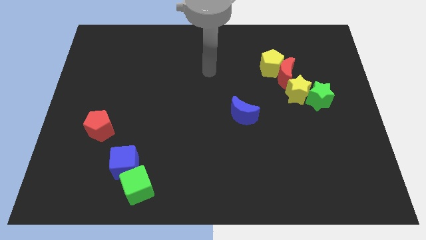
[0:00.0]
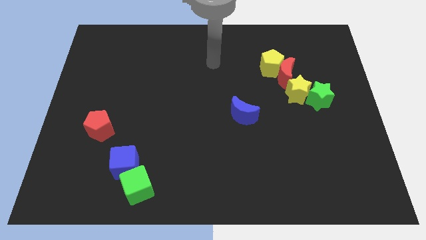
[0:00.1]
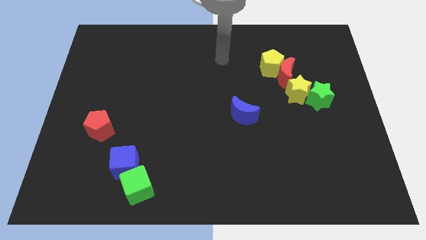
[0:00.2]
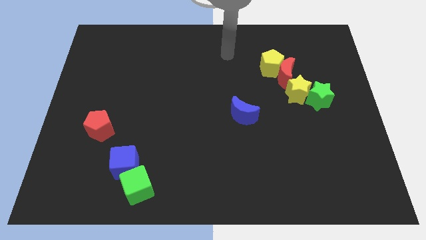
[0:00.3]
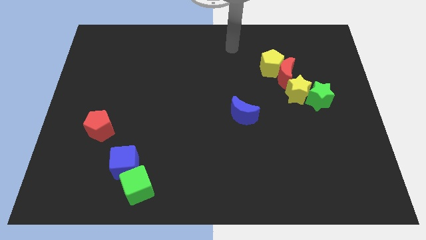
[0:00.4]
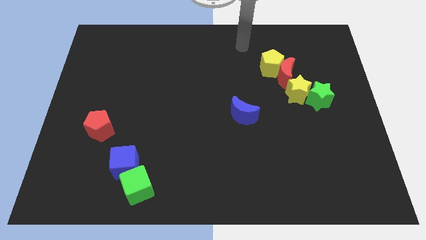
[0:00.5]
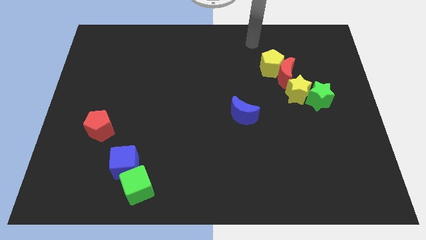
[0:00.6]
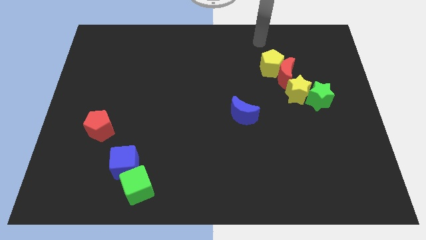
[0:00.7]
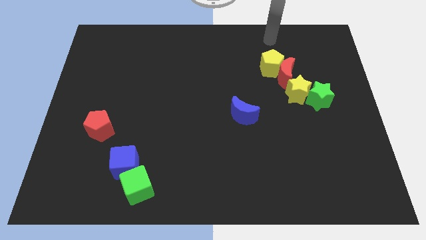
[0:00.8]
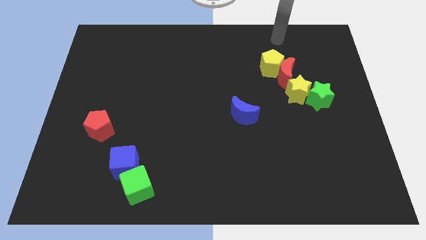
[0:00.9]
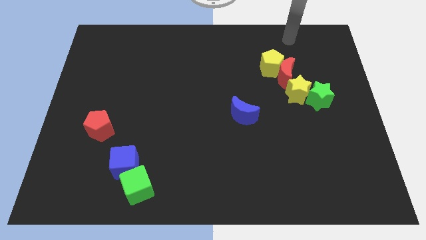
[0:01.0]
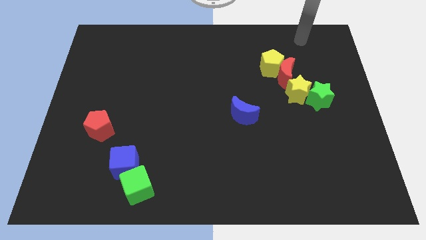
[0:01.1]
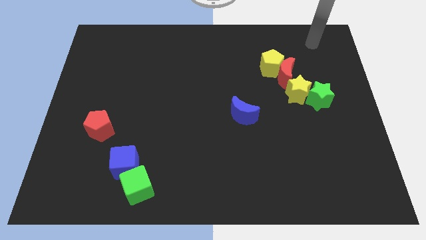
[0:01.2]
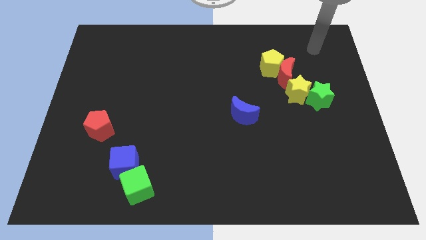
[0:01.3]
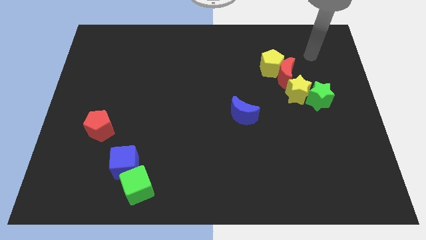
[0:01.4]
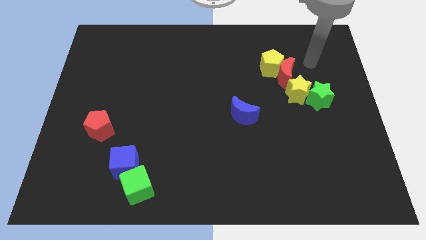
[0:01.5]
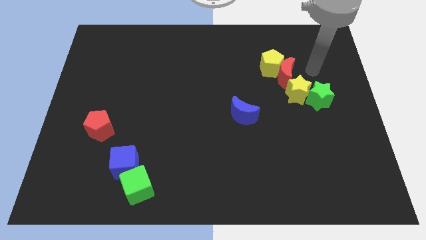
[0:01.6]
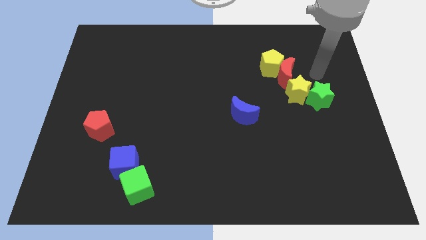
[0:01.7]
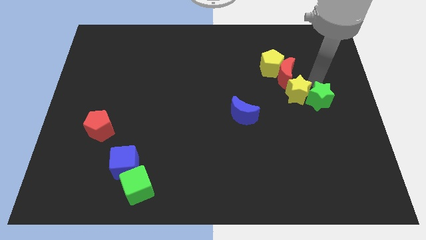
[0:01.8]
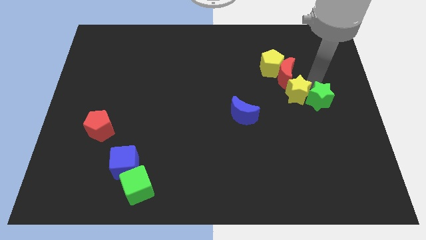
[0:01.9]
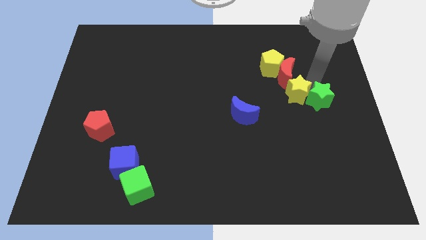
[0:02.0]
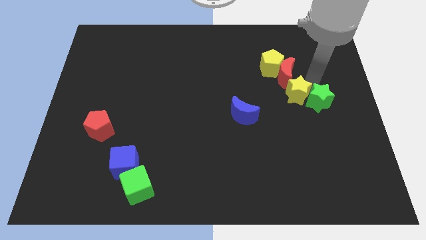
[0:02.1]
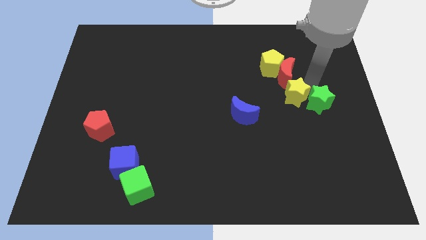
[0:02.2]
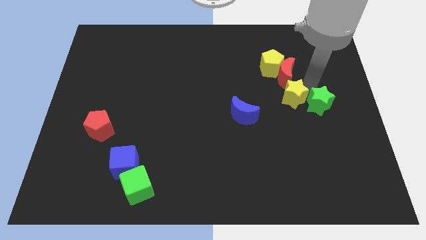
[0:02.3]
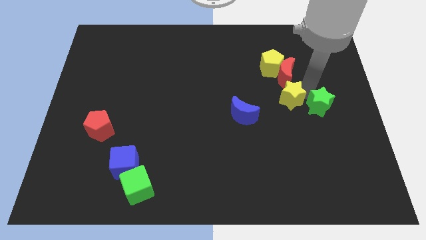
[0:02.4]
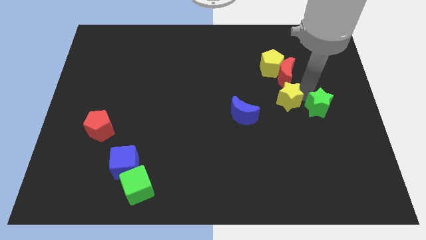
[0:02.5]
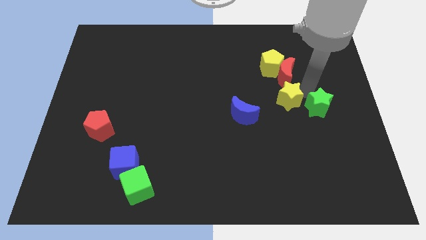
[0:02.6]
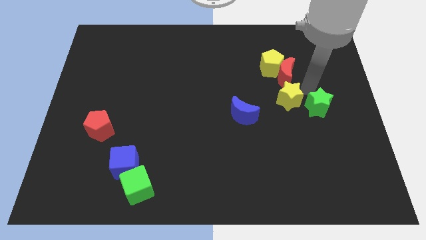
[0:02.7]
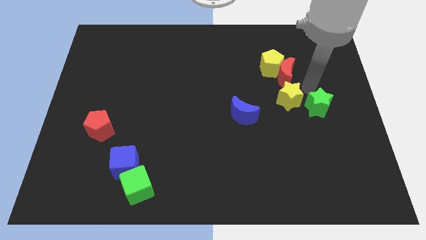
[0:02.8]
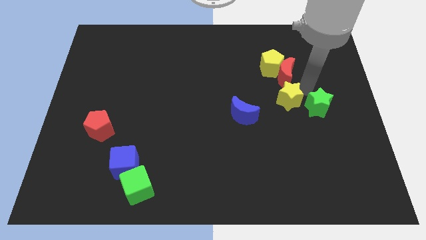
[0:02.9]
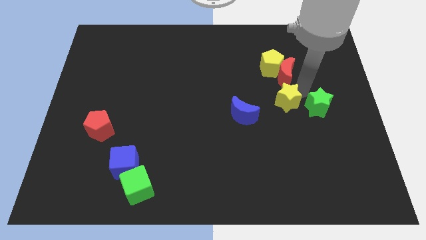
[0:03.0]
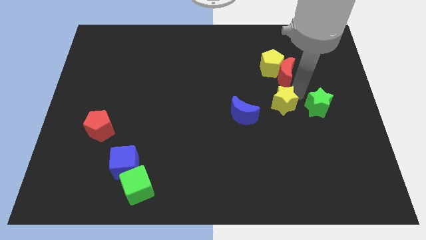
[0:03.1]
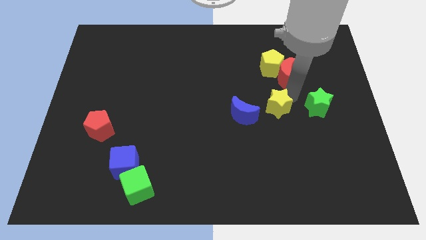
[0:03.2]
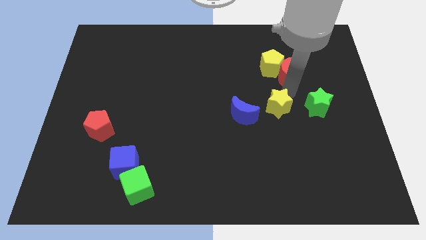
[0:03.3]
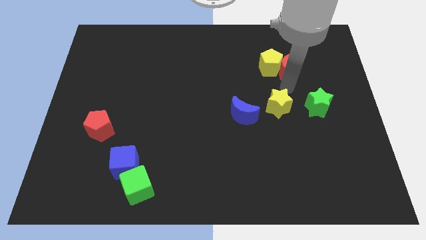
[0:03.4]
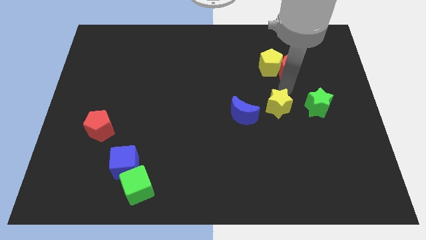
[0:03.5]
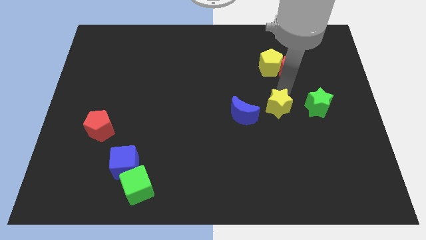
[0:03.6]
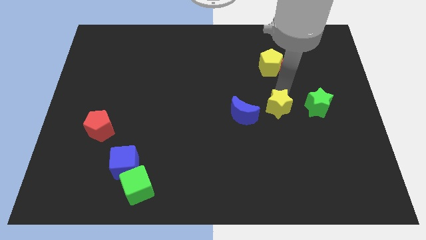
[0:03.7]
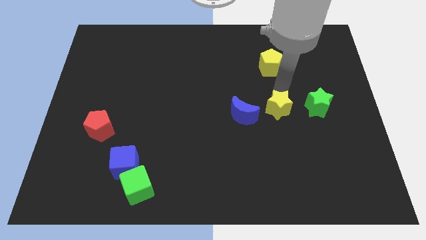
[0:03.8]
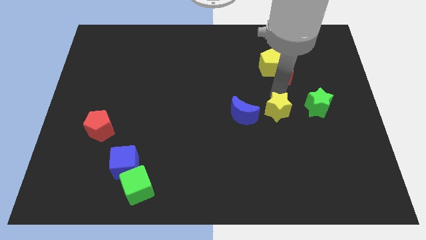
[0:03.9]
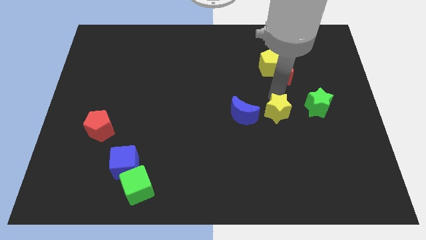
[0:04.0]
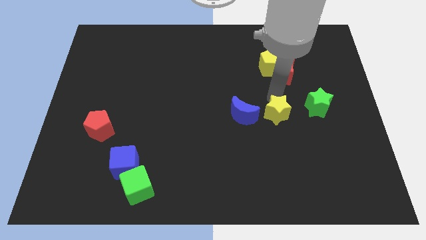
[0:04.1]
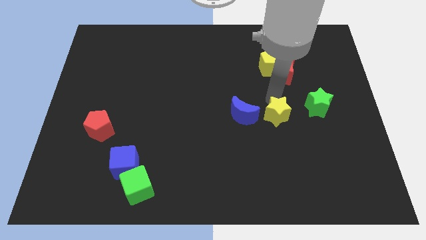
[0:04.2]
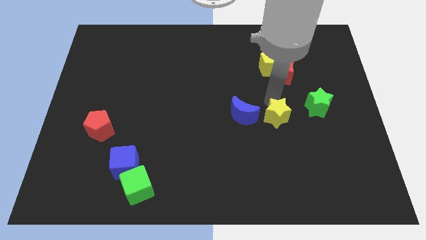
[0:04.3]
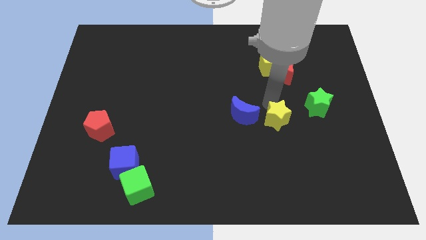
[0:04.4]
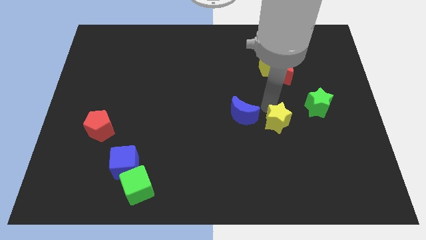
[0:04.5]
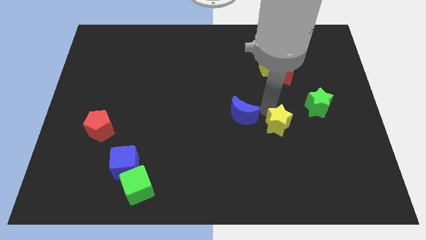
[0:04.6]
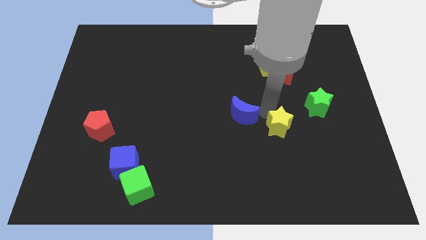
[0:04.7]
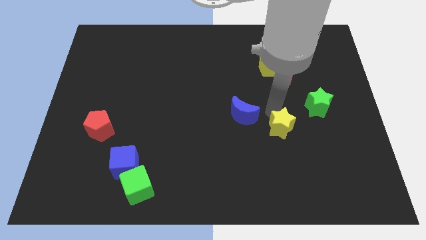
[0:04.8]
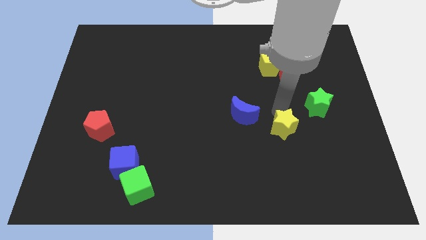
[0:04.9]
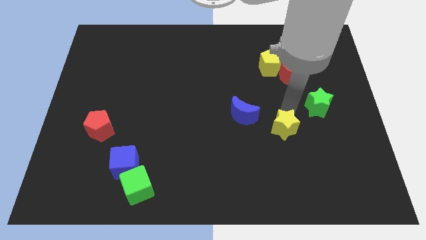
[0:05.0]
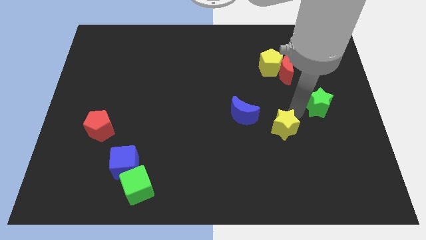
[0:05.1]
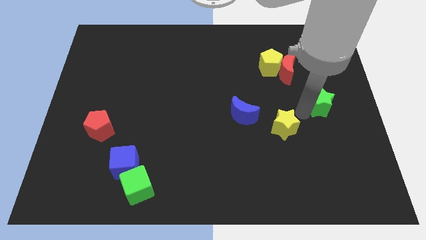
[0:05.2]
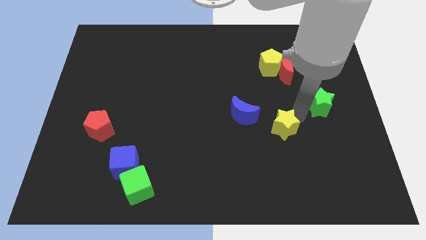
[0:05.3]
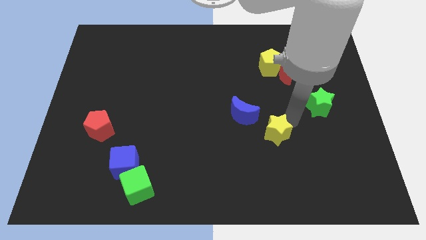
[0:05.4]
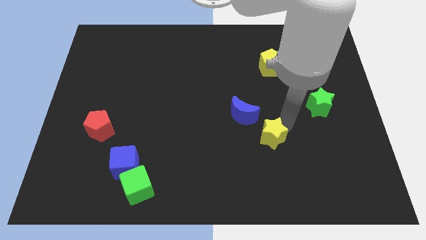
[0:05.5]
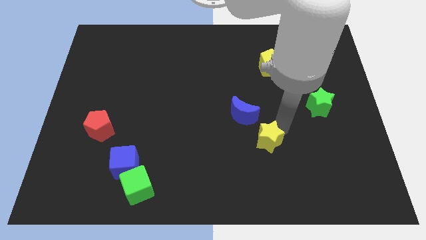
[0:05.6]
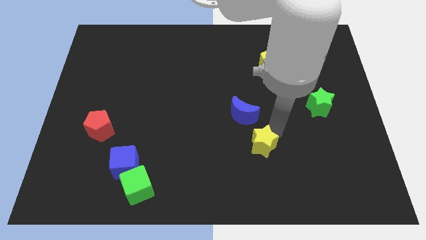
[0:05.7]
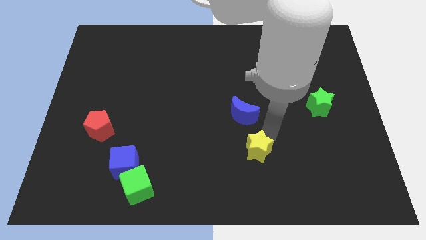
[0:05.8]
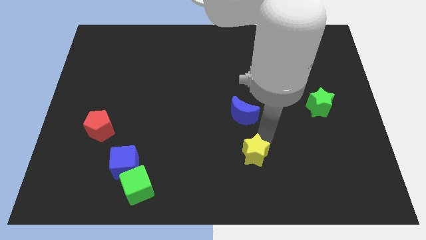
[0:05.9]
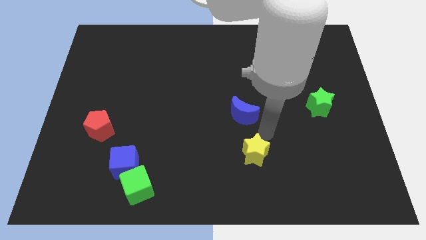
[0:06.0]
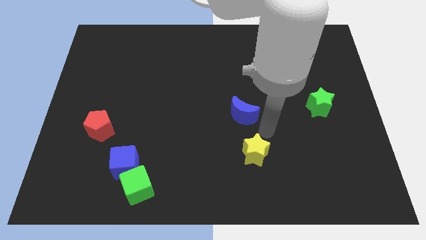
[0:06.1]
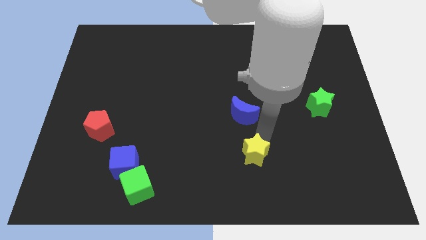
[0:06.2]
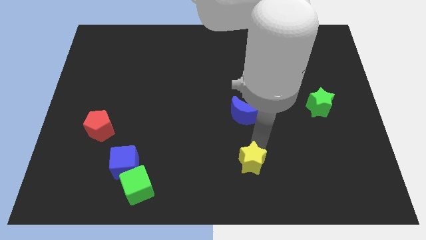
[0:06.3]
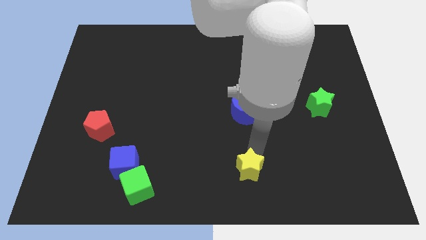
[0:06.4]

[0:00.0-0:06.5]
move the yellow star to the bottom

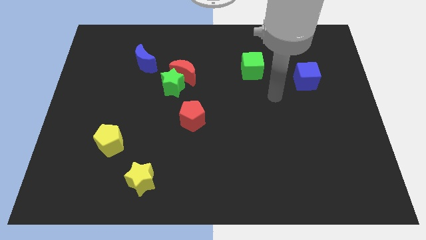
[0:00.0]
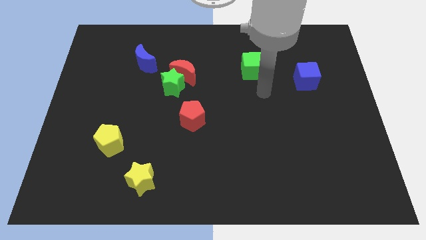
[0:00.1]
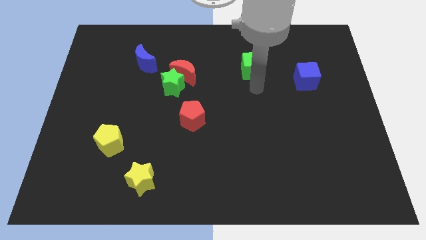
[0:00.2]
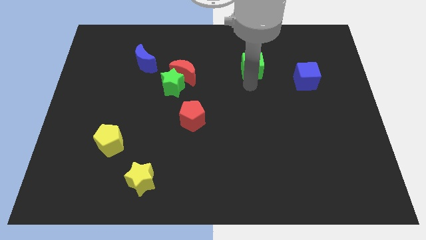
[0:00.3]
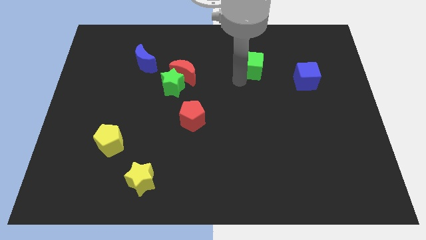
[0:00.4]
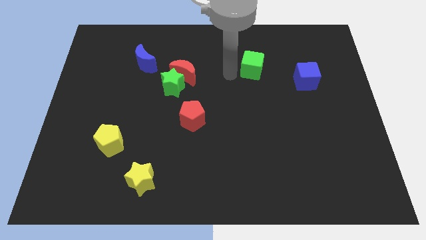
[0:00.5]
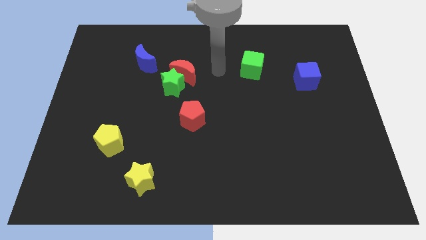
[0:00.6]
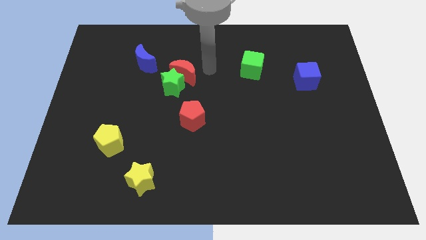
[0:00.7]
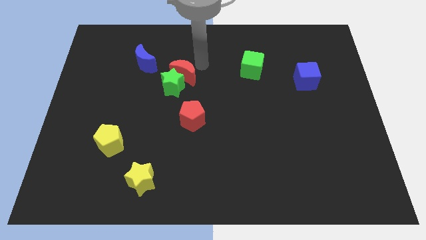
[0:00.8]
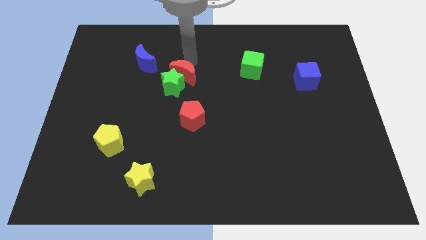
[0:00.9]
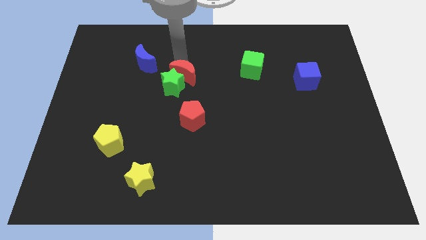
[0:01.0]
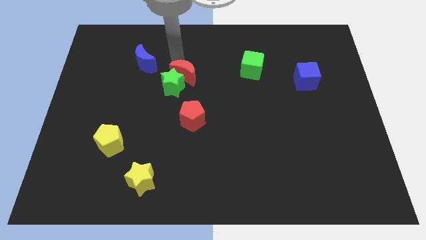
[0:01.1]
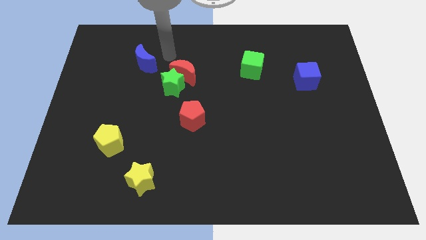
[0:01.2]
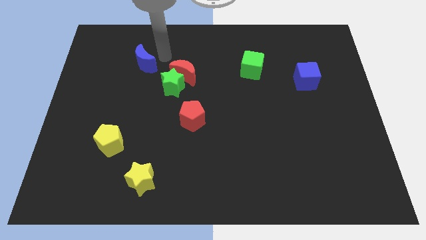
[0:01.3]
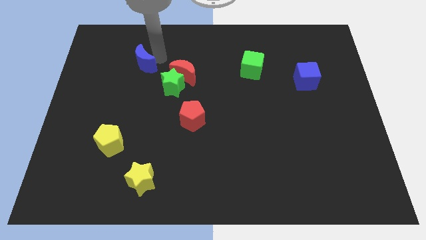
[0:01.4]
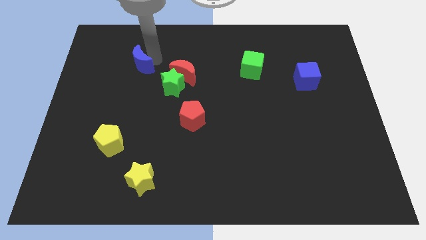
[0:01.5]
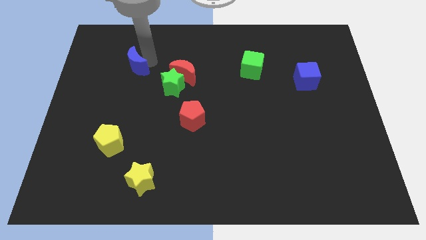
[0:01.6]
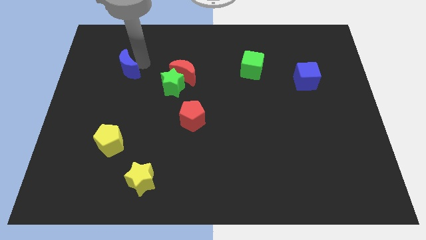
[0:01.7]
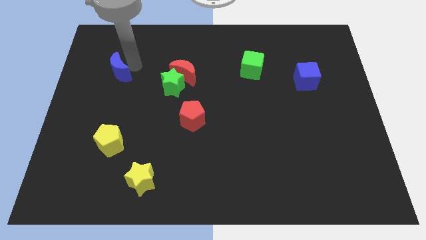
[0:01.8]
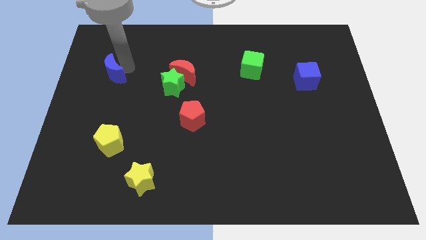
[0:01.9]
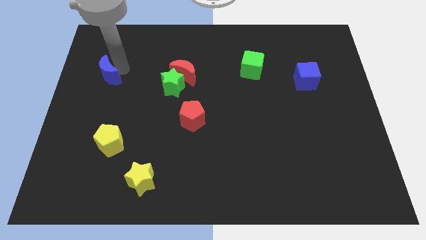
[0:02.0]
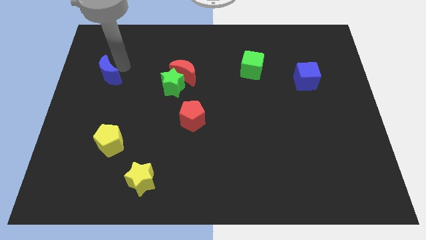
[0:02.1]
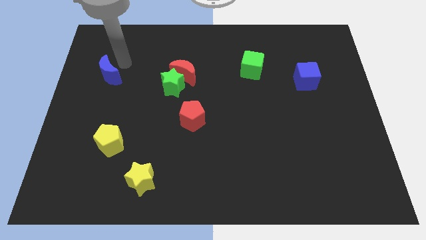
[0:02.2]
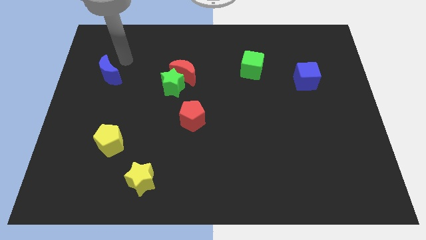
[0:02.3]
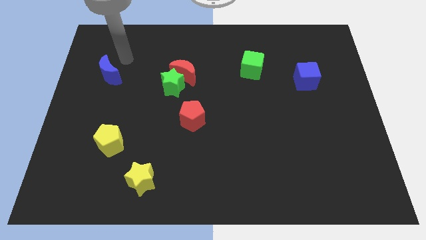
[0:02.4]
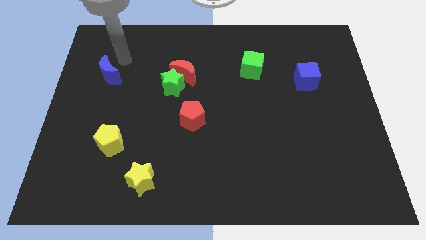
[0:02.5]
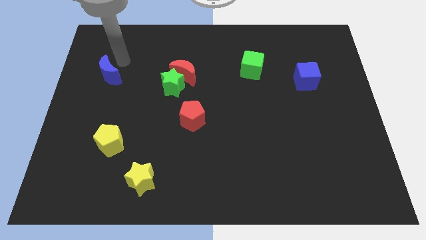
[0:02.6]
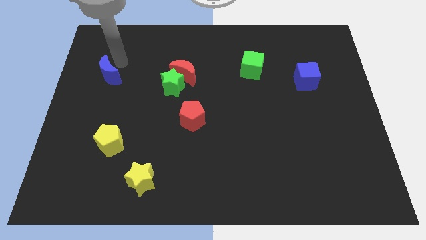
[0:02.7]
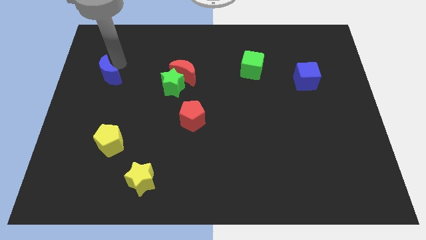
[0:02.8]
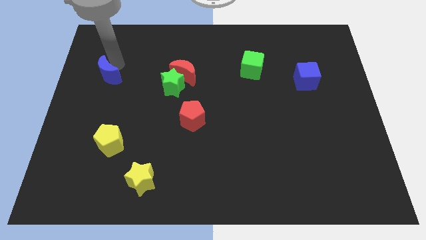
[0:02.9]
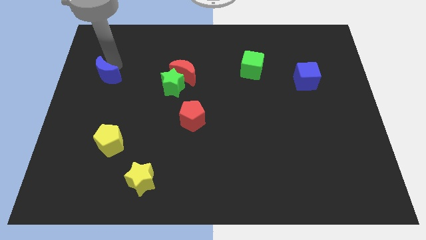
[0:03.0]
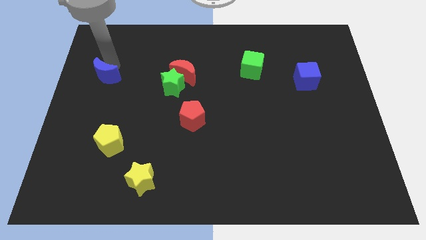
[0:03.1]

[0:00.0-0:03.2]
put the blue moon to the left side
